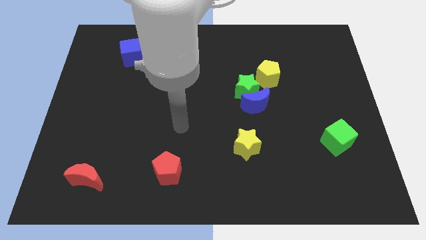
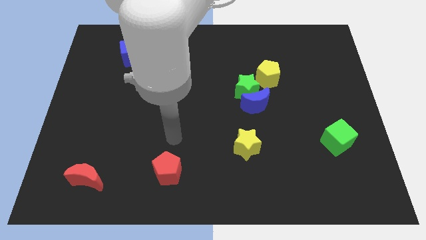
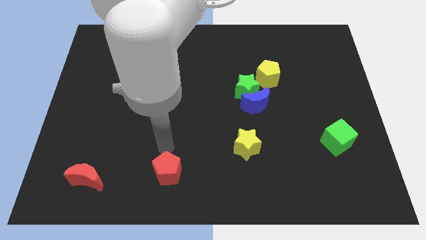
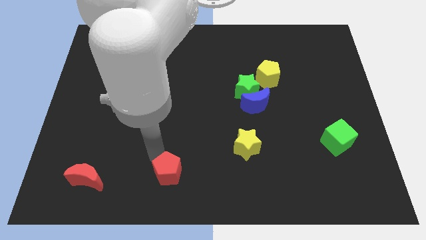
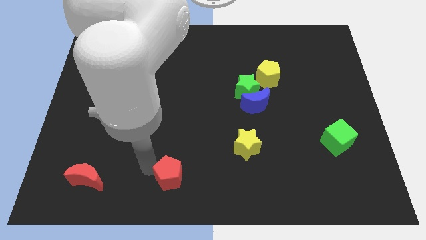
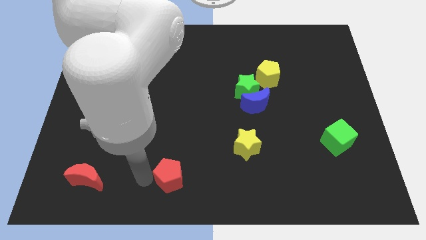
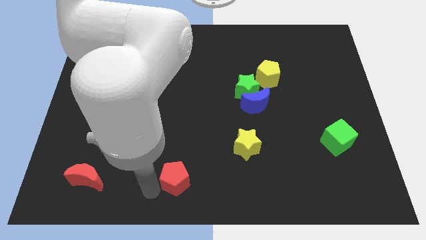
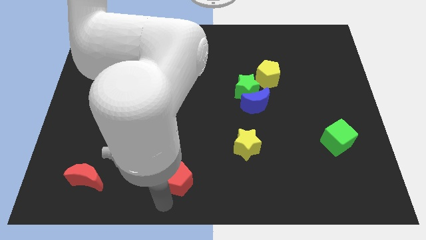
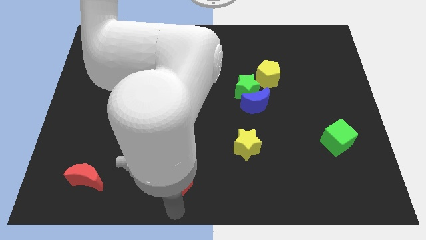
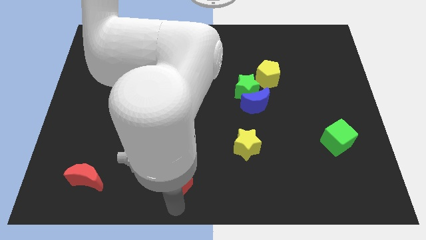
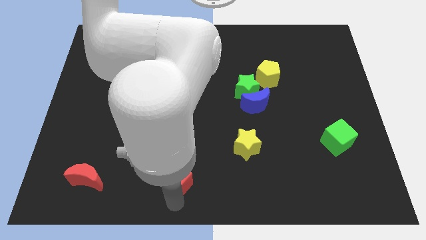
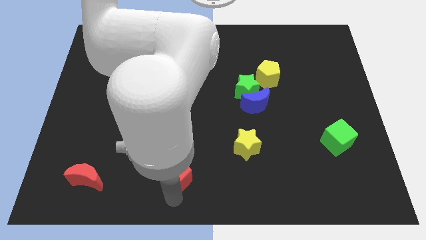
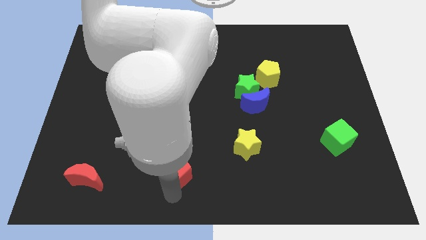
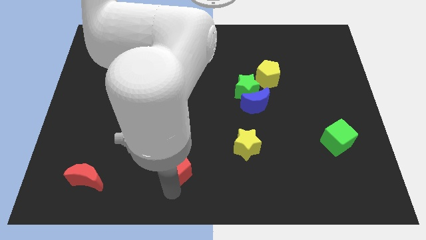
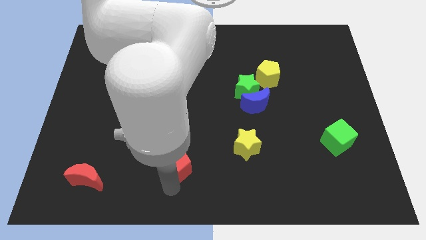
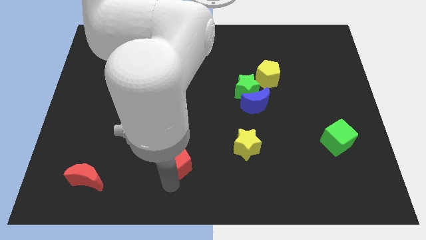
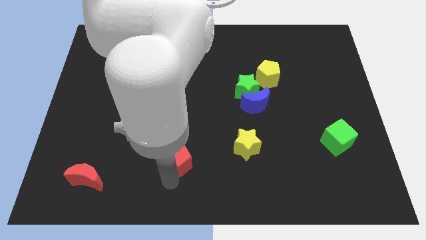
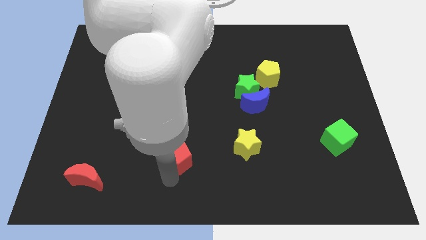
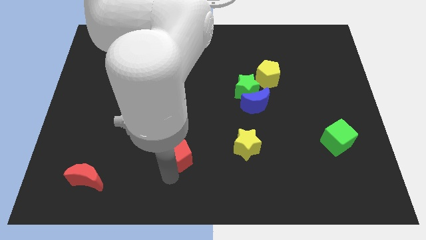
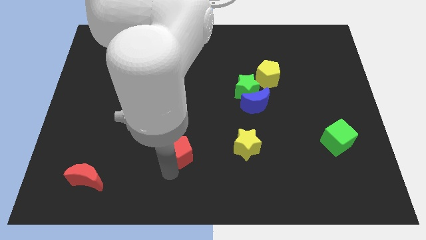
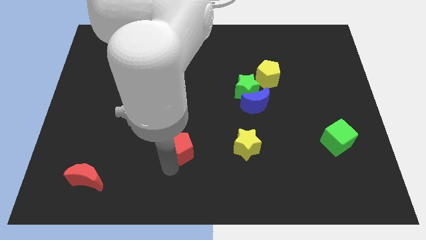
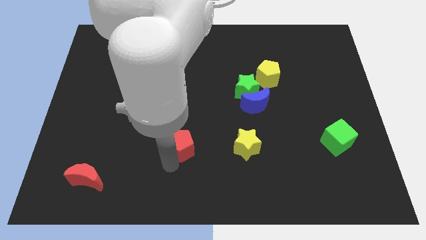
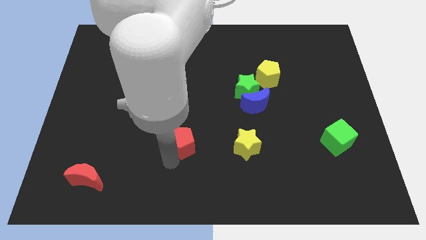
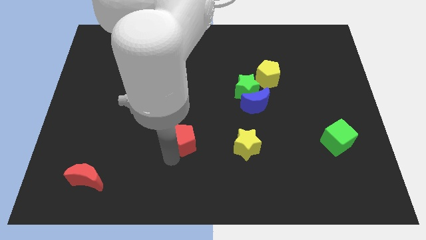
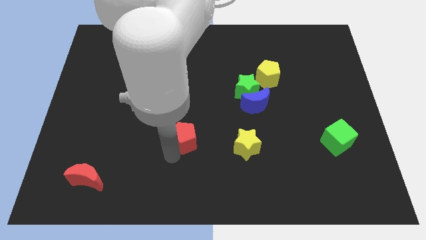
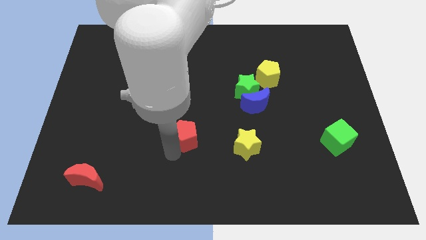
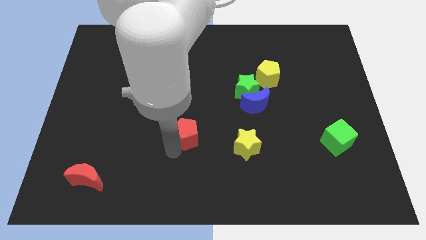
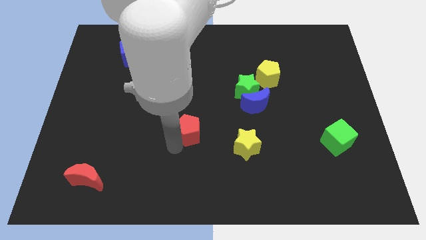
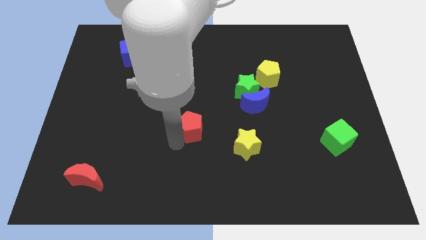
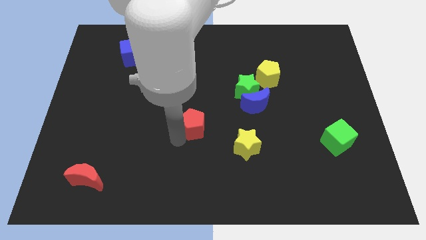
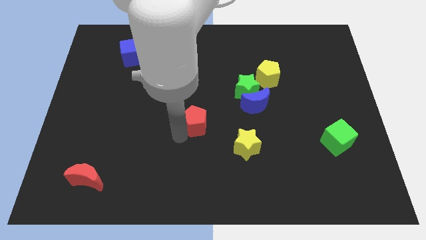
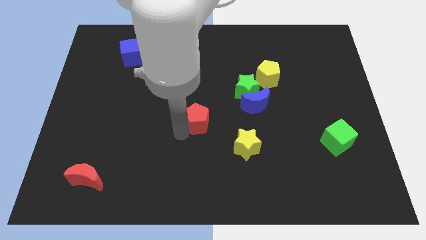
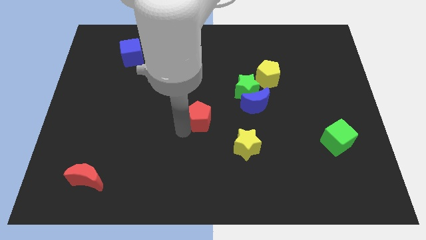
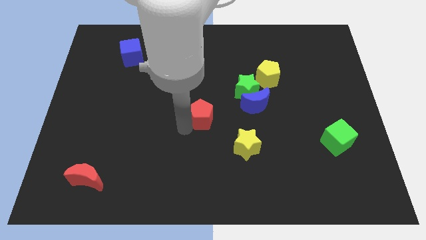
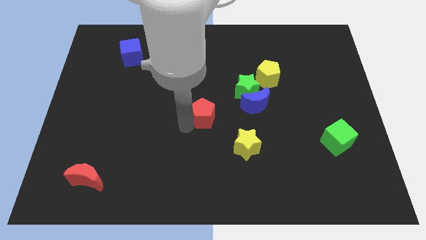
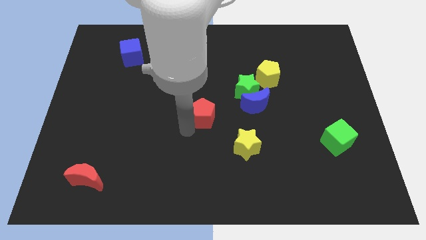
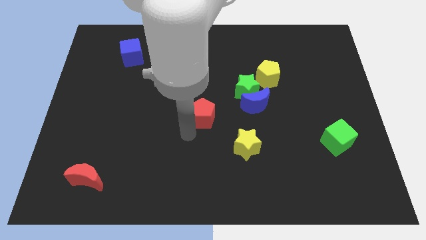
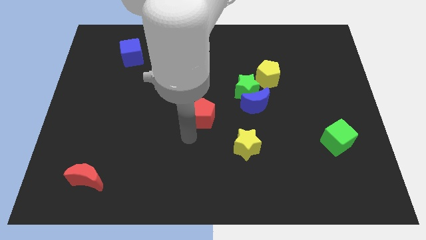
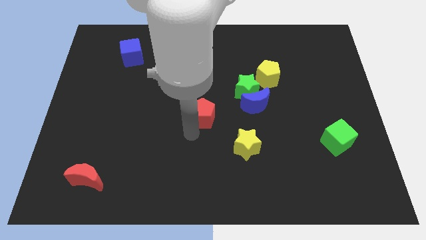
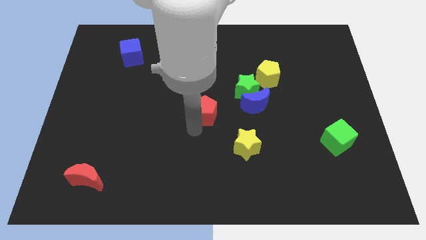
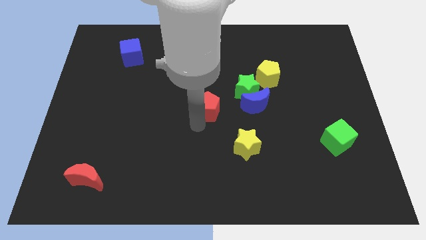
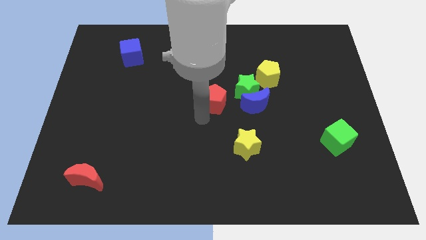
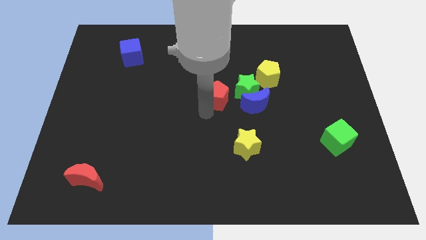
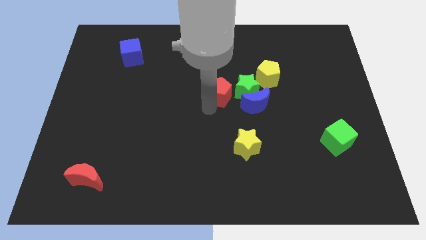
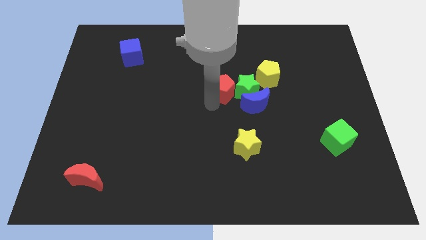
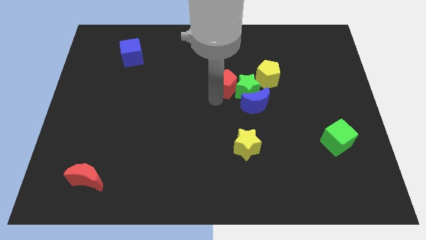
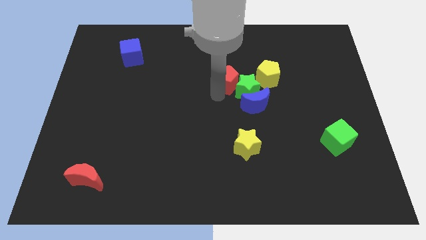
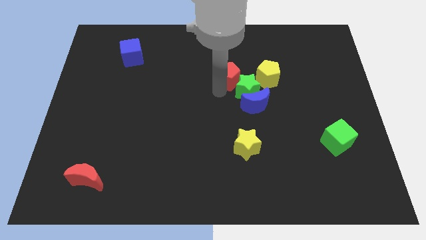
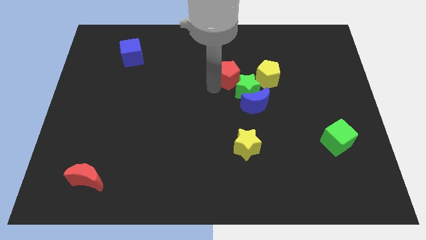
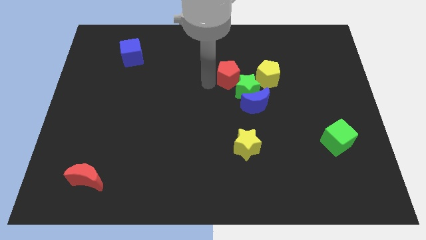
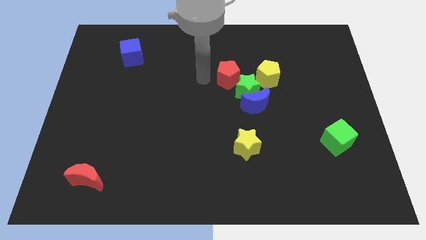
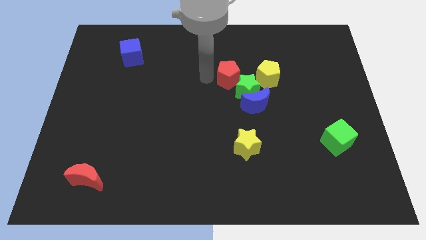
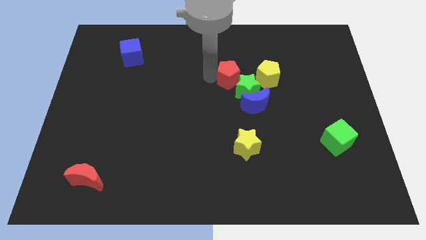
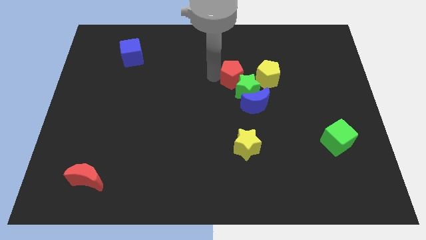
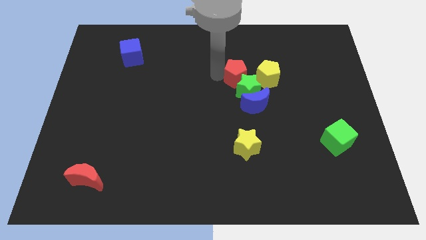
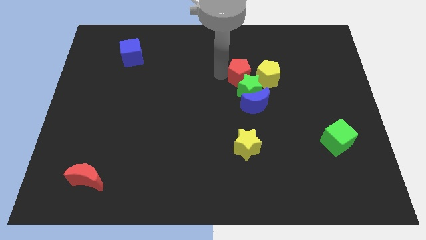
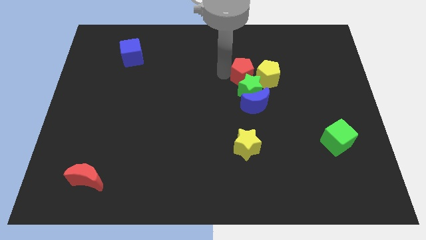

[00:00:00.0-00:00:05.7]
slide the red pentagon to the yellow pentagon

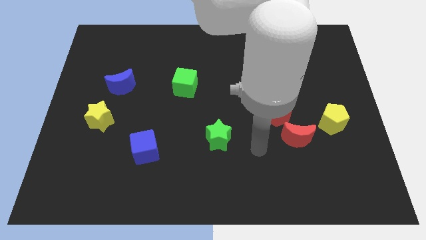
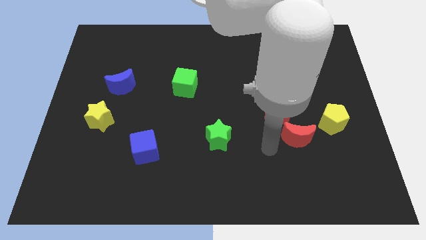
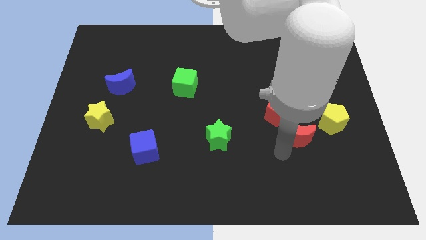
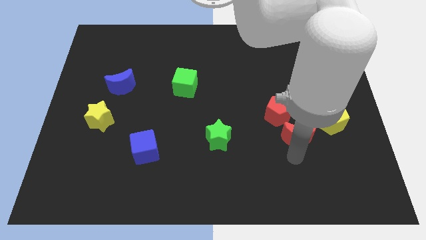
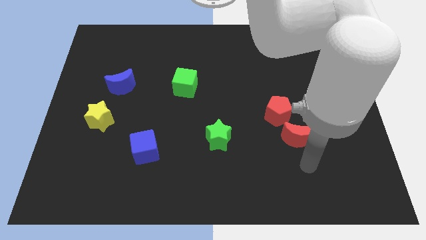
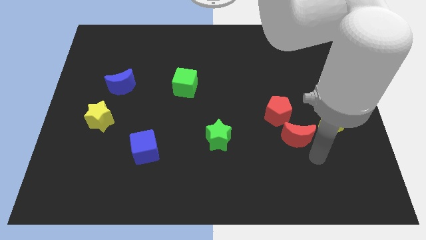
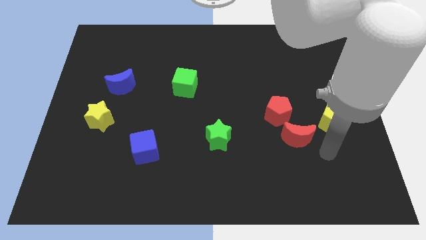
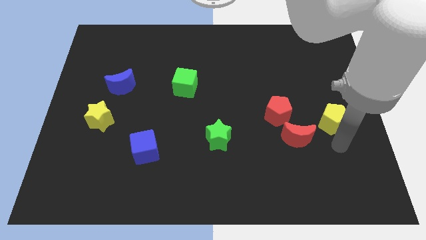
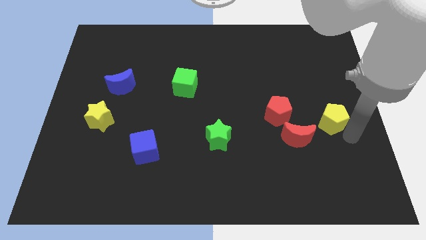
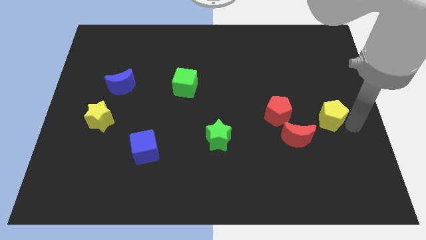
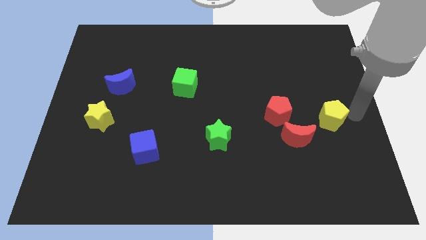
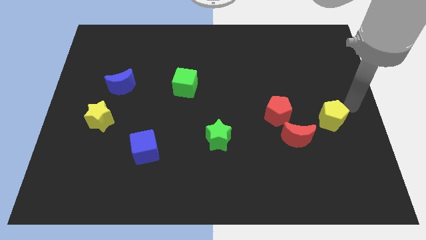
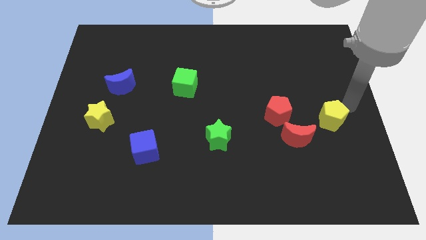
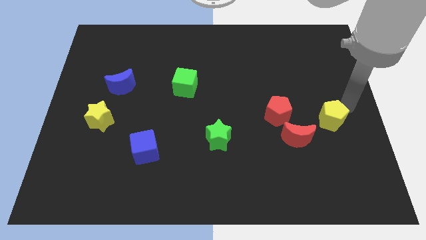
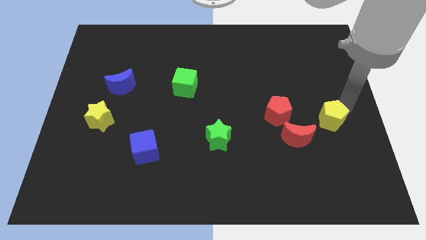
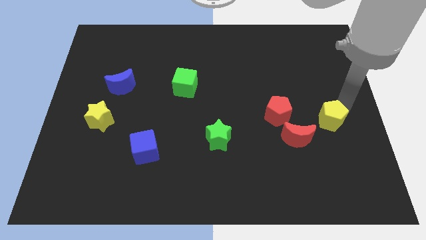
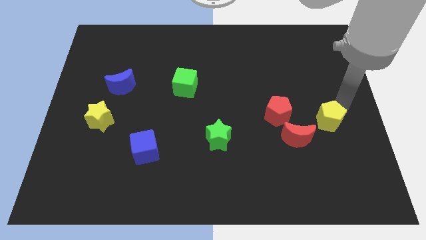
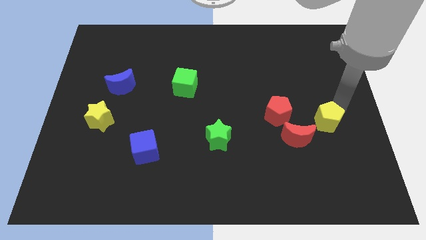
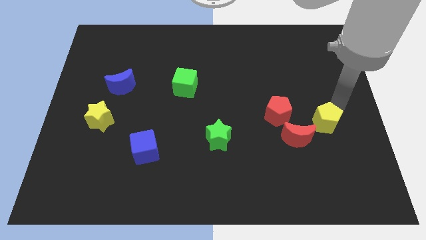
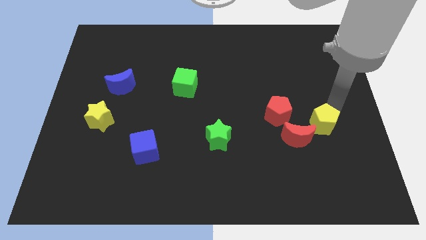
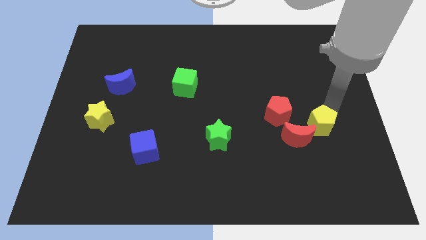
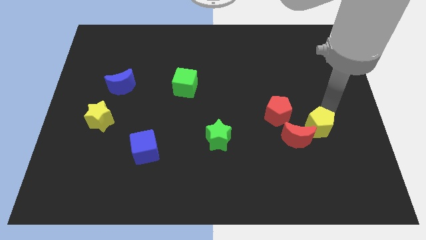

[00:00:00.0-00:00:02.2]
push the yellow pentagon to the red moon

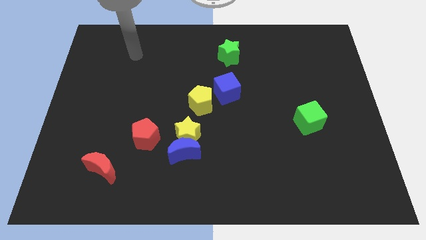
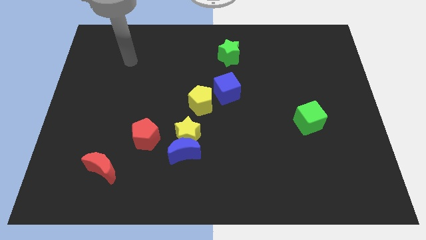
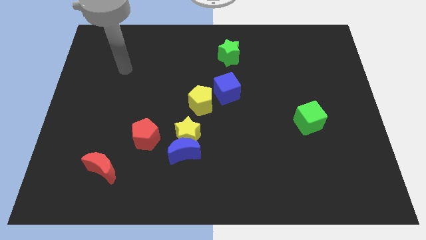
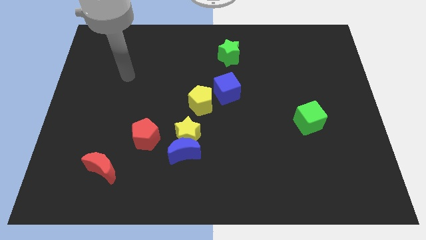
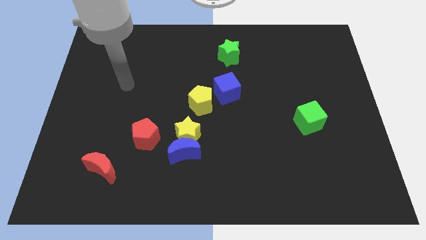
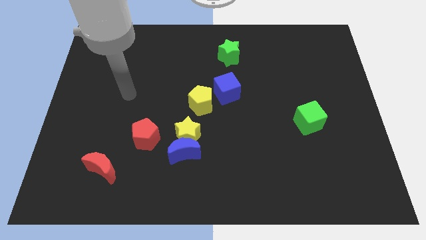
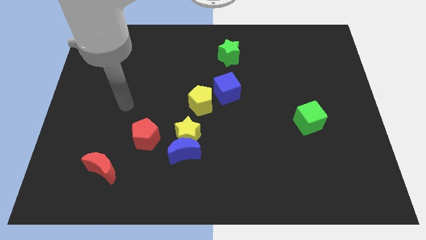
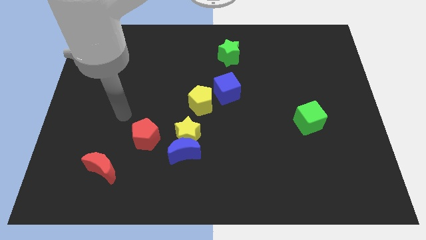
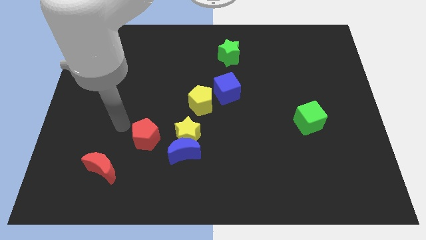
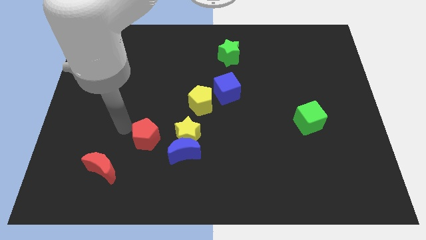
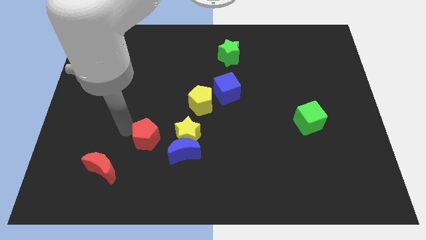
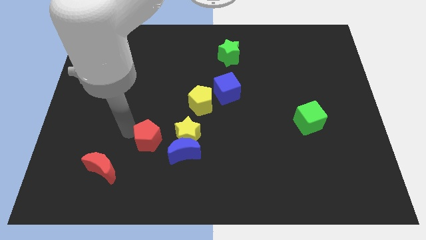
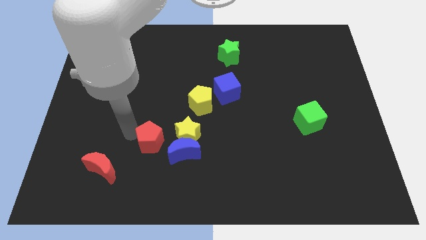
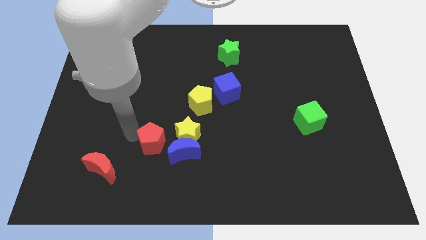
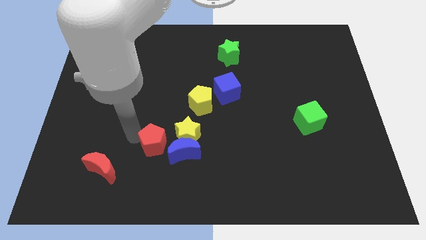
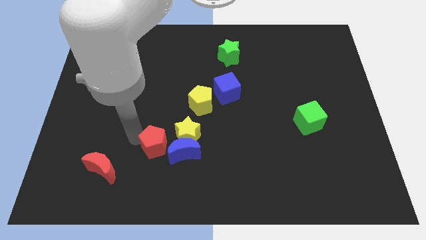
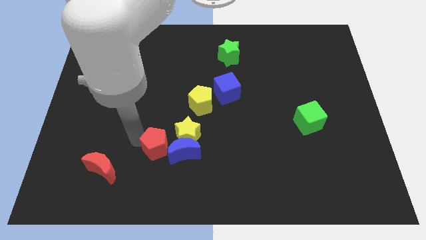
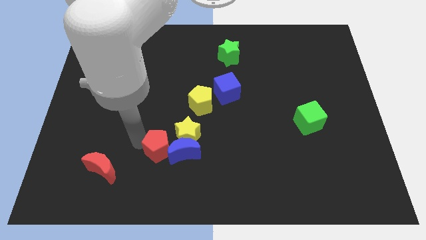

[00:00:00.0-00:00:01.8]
put the red pentagon close to the blue moon
